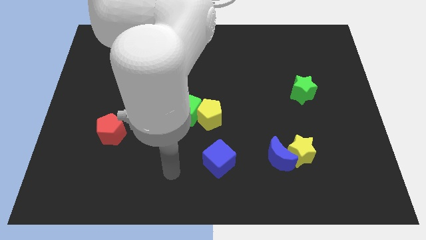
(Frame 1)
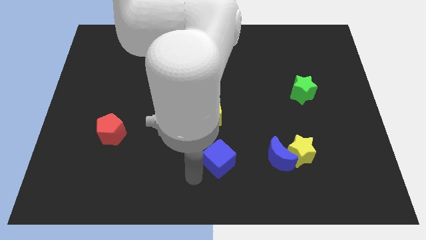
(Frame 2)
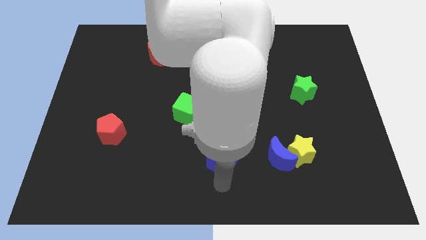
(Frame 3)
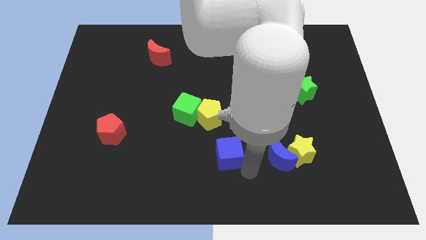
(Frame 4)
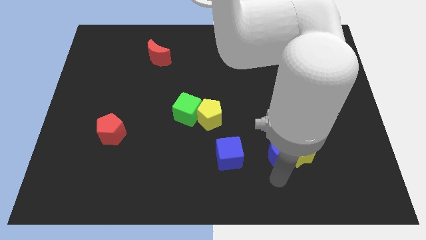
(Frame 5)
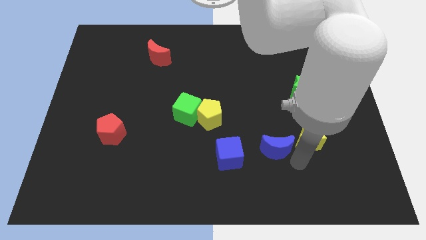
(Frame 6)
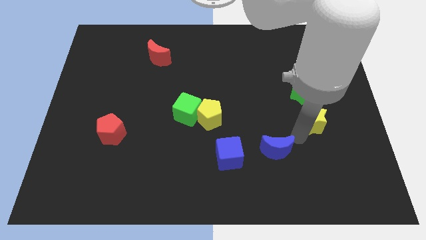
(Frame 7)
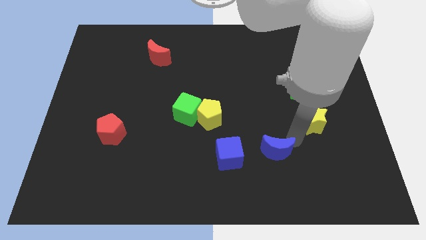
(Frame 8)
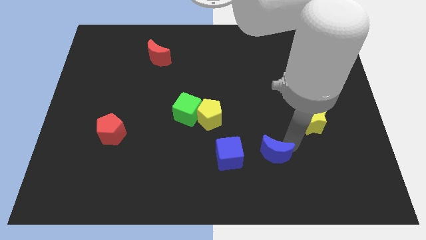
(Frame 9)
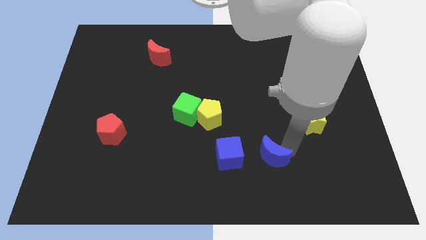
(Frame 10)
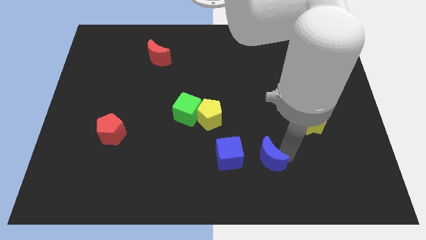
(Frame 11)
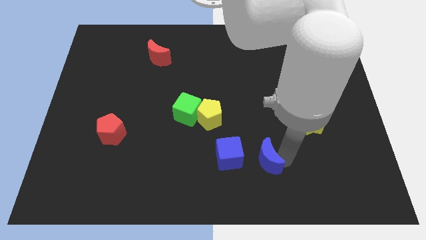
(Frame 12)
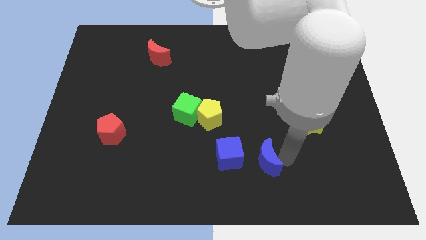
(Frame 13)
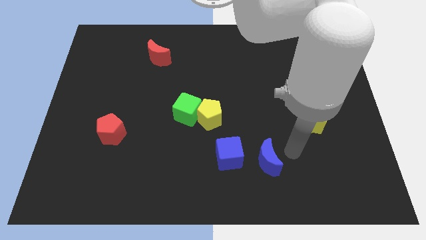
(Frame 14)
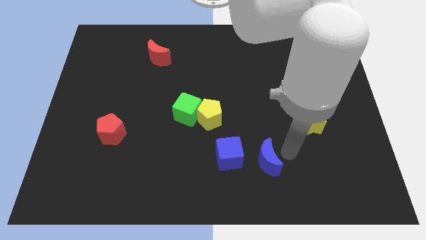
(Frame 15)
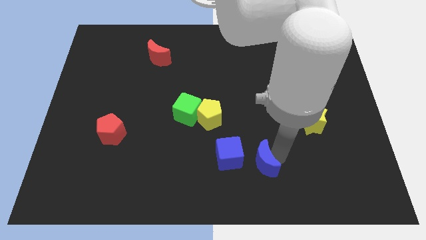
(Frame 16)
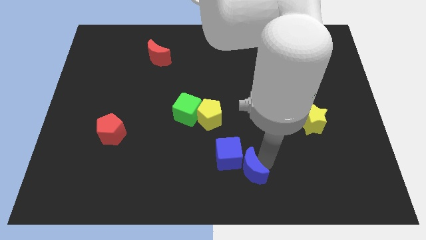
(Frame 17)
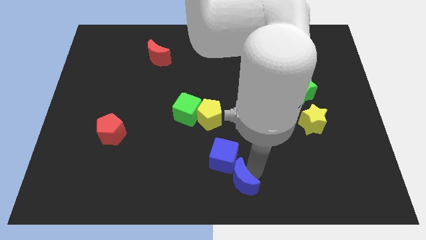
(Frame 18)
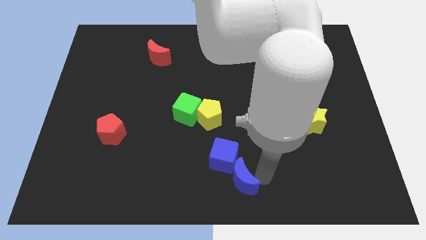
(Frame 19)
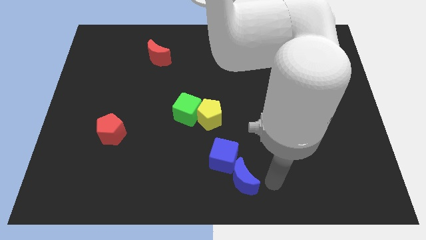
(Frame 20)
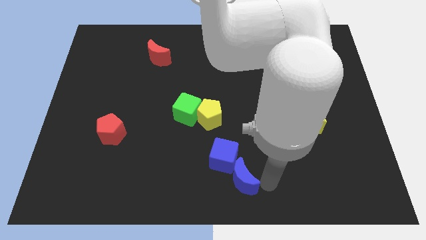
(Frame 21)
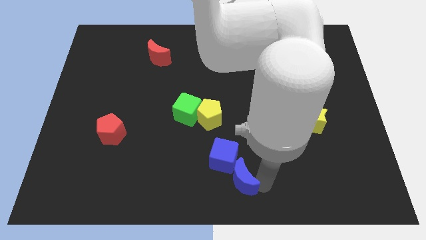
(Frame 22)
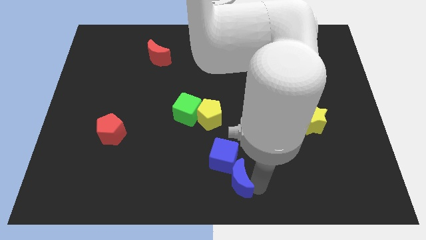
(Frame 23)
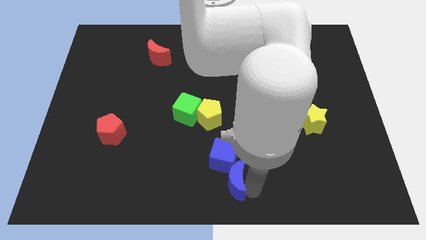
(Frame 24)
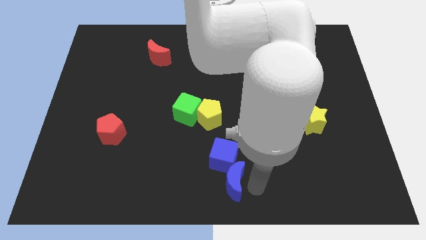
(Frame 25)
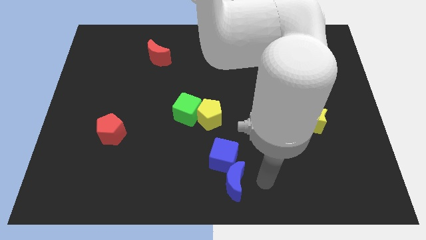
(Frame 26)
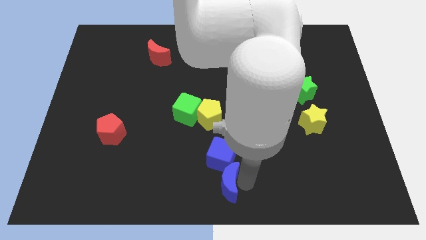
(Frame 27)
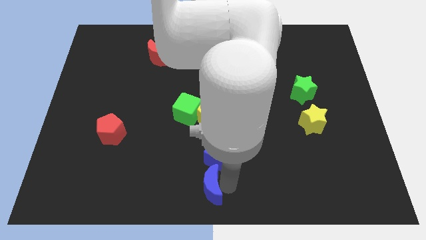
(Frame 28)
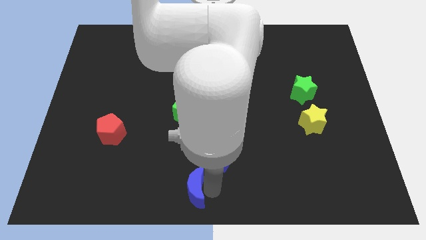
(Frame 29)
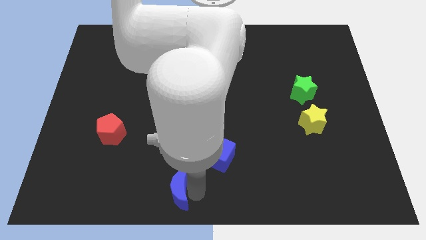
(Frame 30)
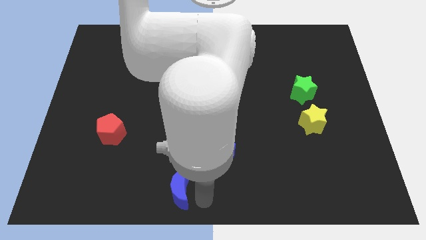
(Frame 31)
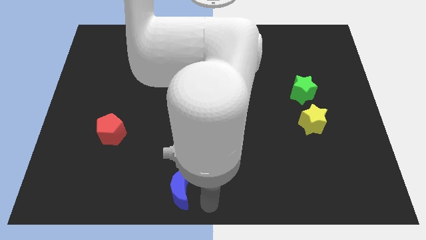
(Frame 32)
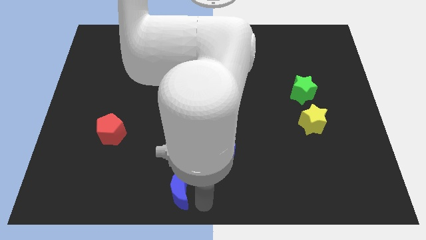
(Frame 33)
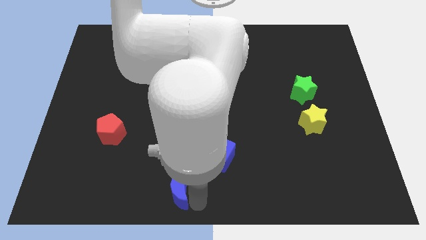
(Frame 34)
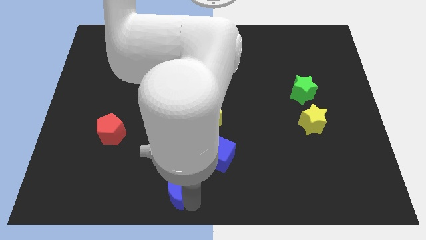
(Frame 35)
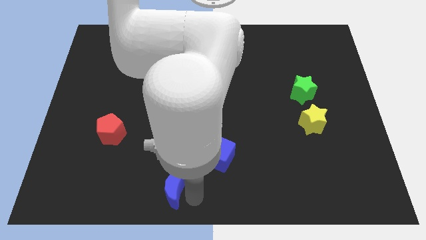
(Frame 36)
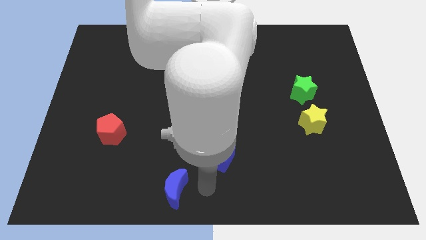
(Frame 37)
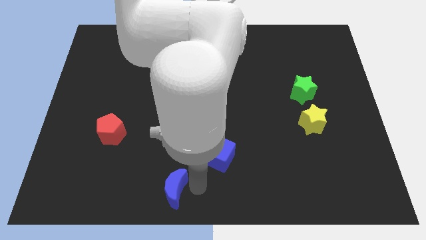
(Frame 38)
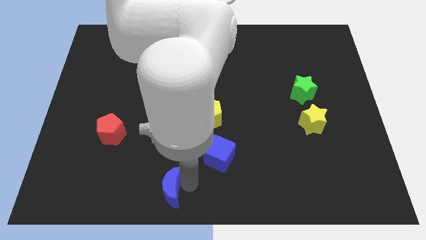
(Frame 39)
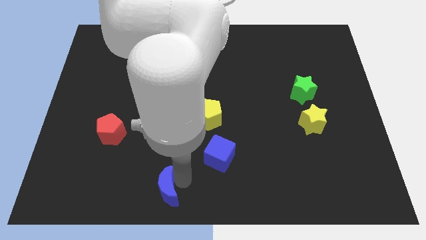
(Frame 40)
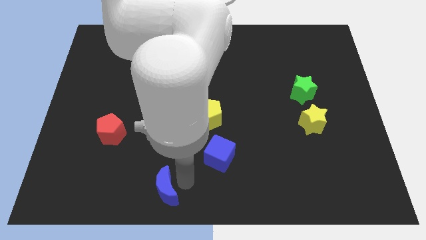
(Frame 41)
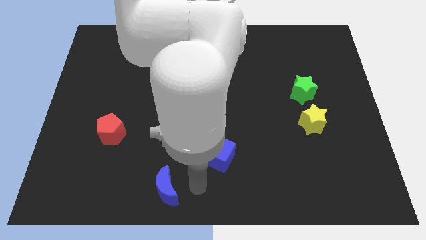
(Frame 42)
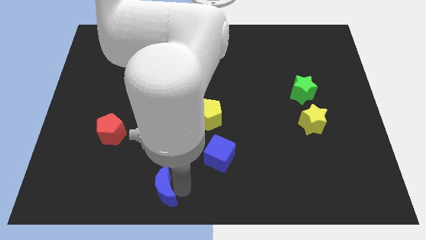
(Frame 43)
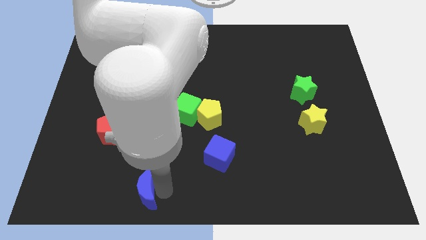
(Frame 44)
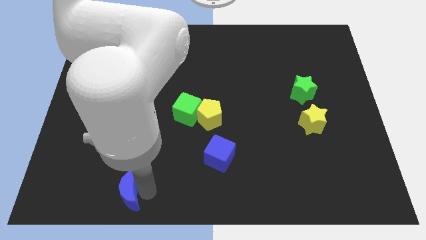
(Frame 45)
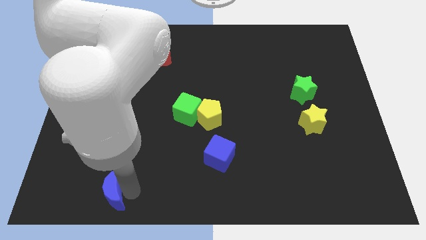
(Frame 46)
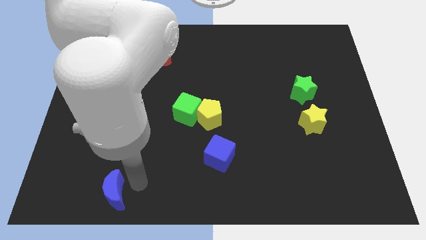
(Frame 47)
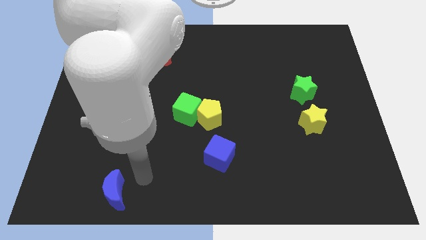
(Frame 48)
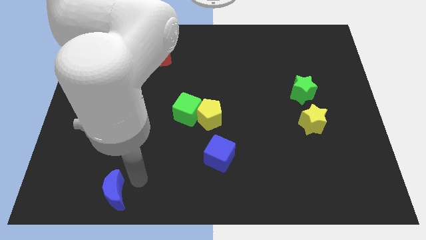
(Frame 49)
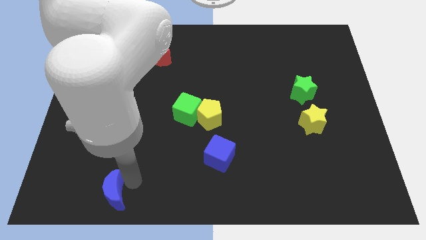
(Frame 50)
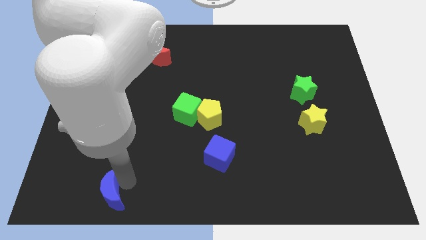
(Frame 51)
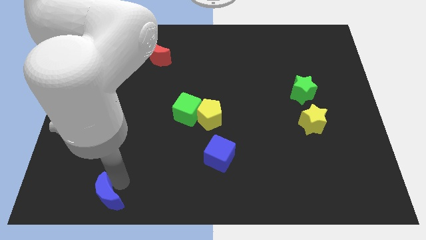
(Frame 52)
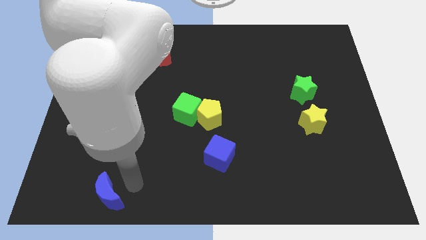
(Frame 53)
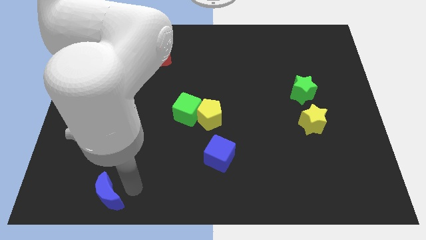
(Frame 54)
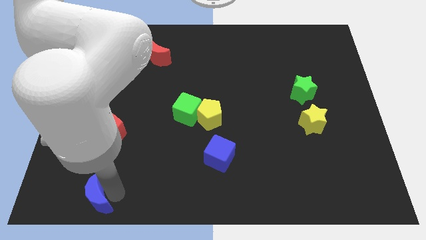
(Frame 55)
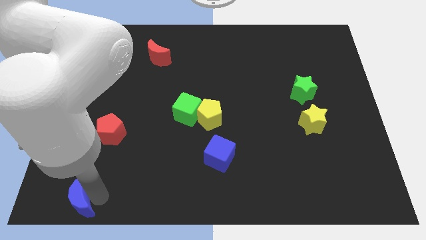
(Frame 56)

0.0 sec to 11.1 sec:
slide the blue moon to the lower left corner

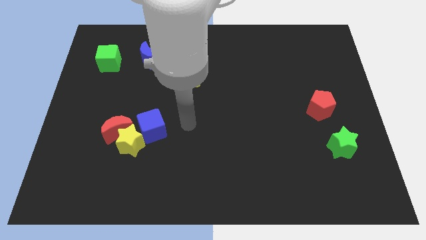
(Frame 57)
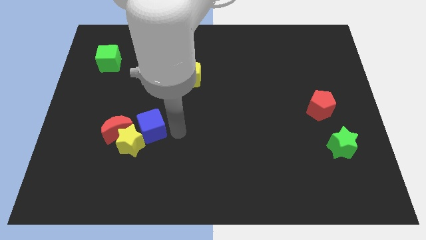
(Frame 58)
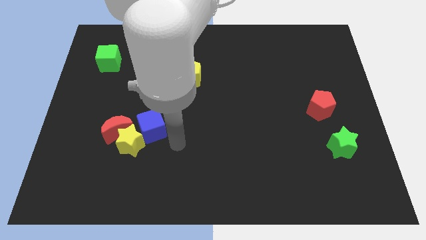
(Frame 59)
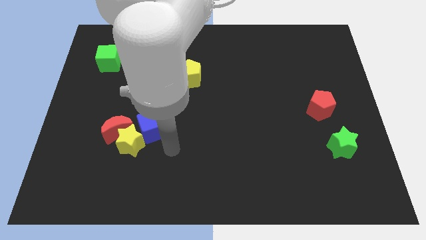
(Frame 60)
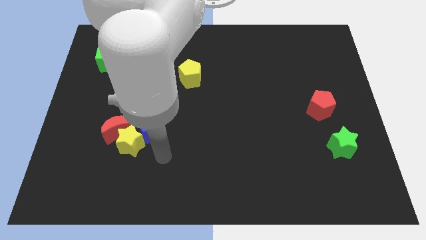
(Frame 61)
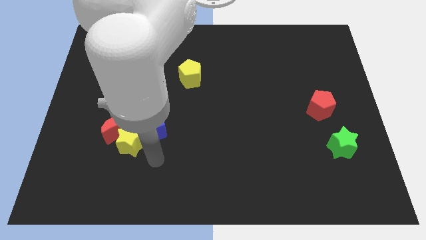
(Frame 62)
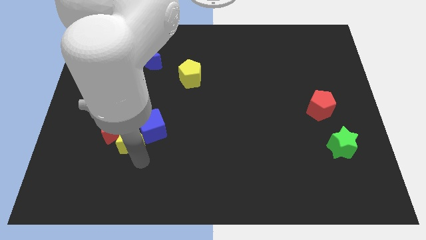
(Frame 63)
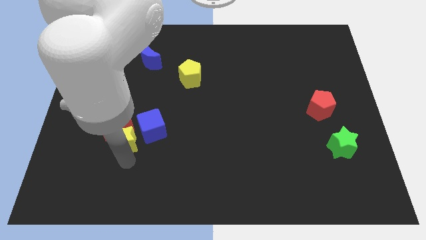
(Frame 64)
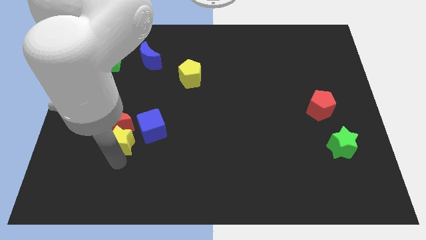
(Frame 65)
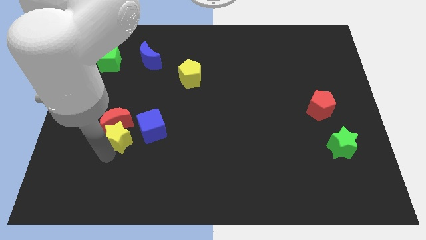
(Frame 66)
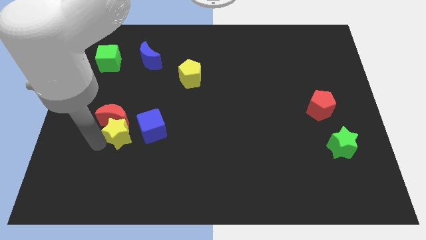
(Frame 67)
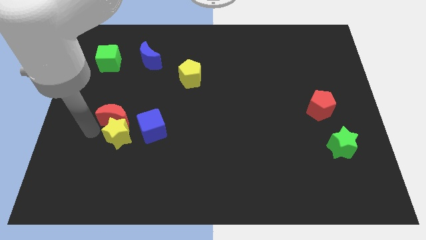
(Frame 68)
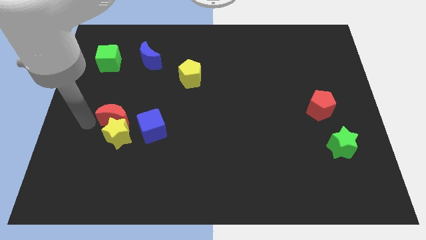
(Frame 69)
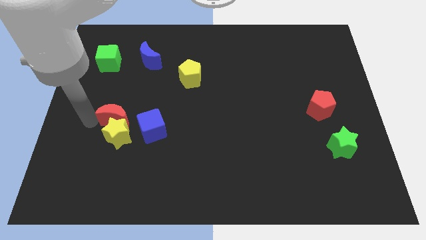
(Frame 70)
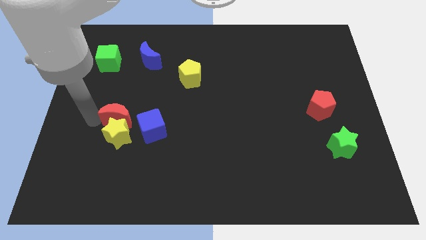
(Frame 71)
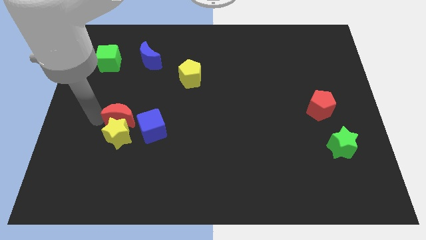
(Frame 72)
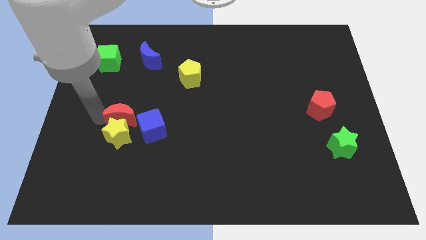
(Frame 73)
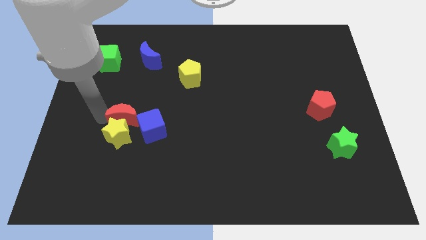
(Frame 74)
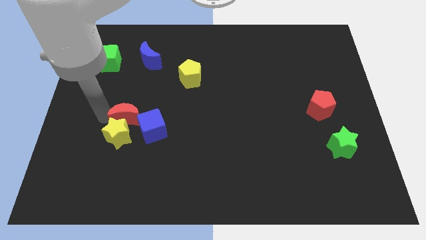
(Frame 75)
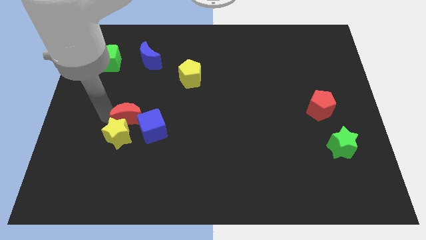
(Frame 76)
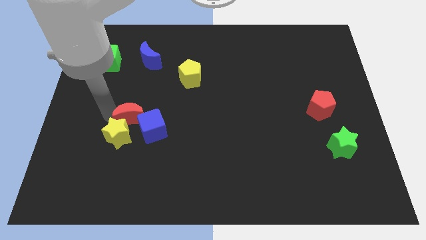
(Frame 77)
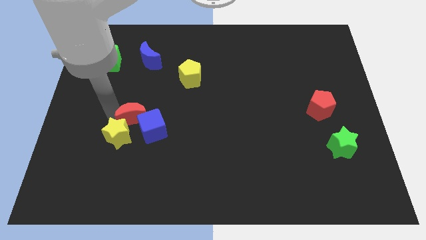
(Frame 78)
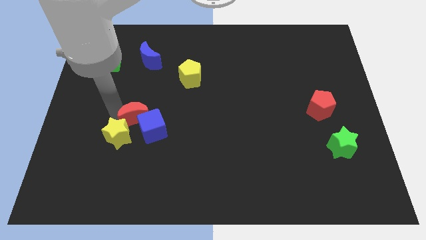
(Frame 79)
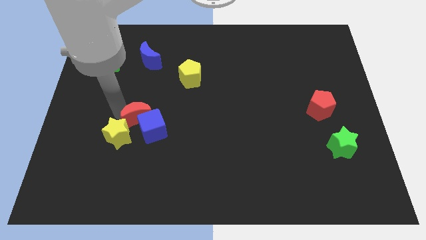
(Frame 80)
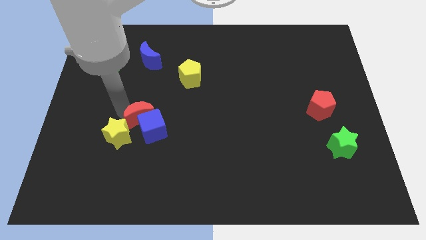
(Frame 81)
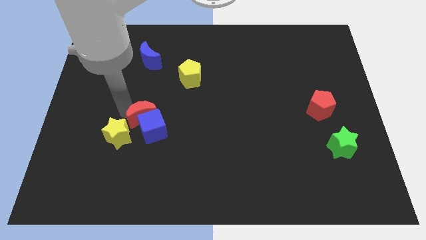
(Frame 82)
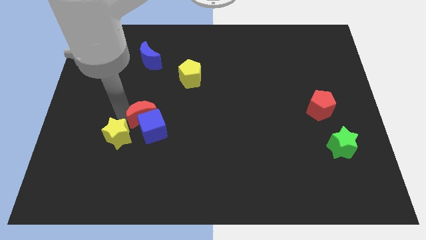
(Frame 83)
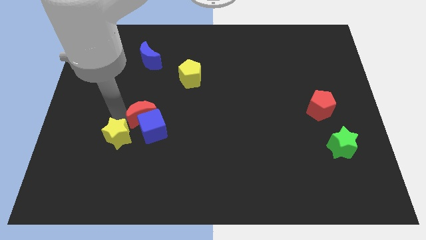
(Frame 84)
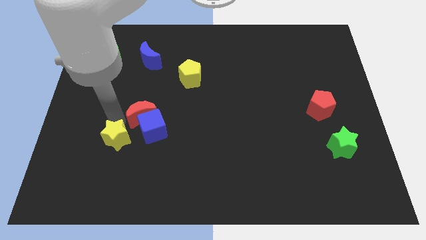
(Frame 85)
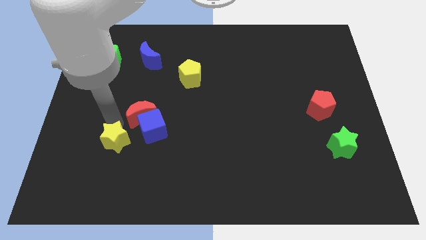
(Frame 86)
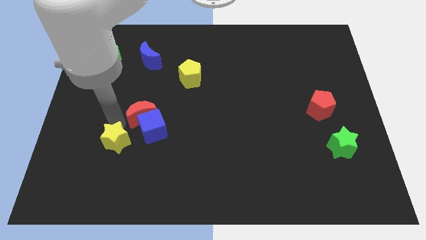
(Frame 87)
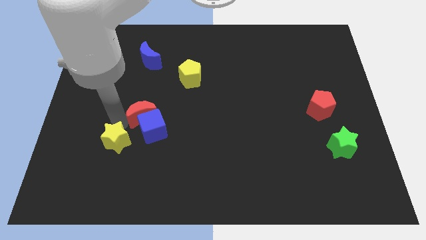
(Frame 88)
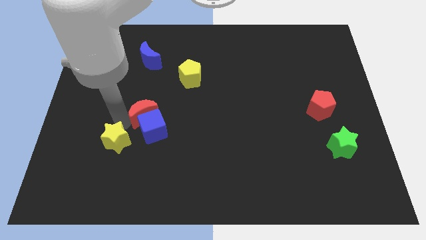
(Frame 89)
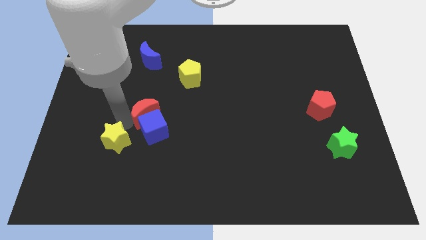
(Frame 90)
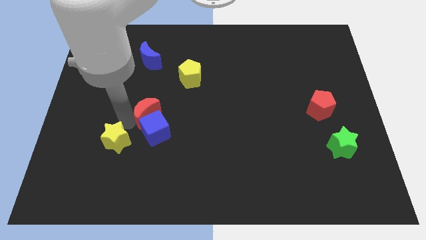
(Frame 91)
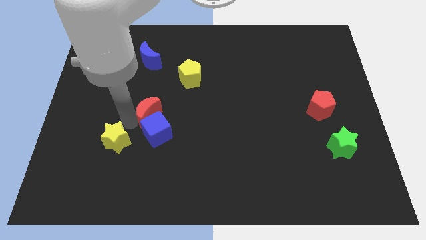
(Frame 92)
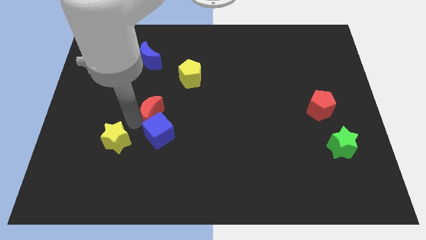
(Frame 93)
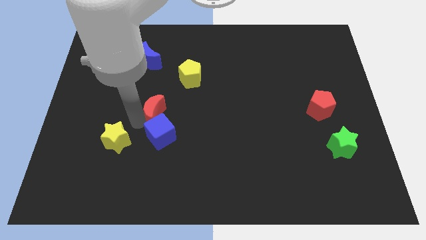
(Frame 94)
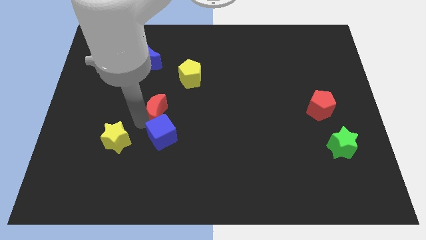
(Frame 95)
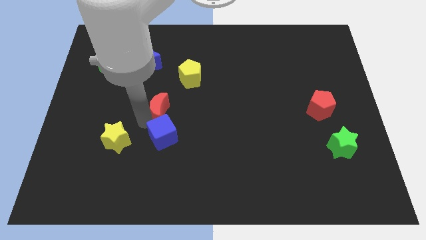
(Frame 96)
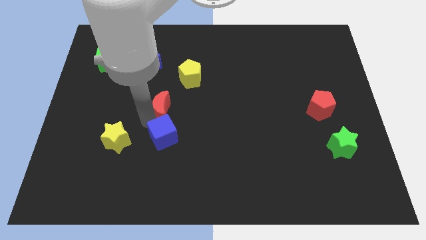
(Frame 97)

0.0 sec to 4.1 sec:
move the red moon to the center
